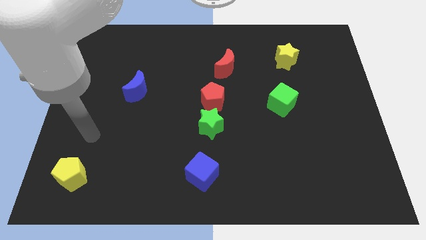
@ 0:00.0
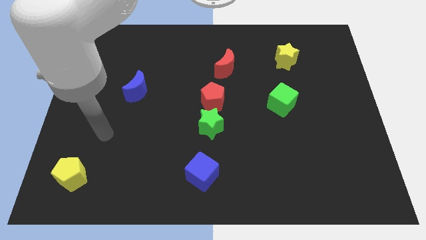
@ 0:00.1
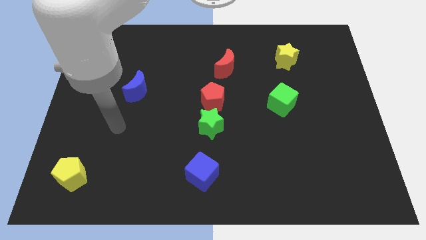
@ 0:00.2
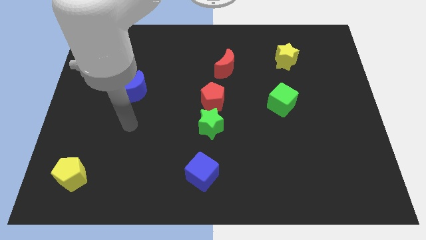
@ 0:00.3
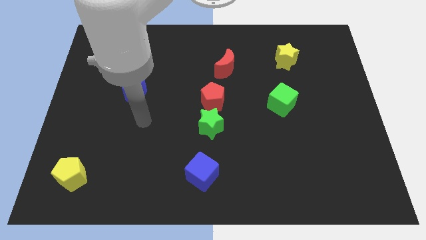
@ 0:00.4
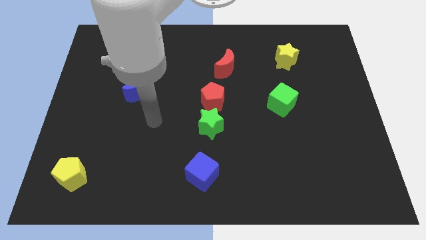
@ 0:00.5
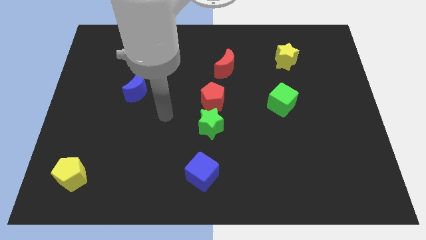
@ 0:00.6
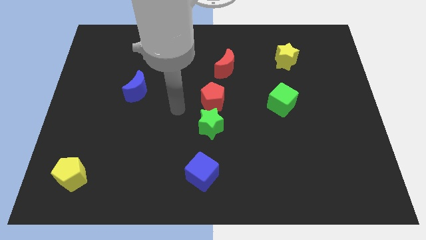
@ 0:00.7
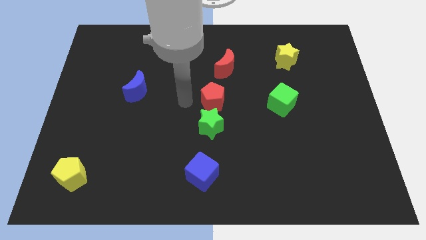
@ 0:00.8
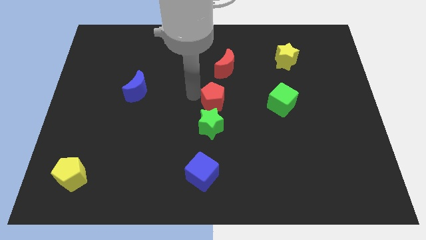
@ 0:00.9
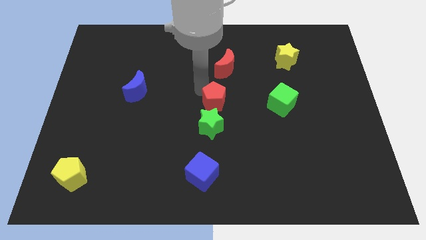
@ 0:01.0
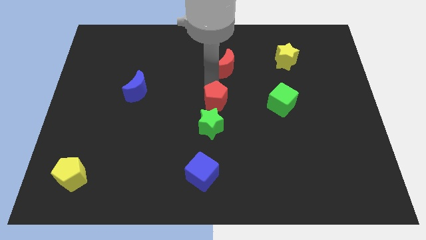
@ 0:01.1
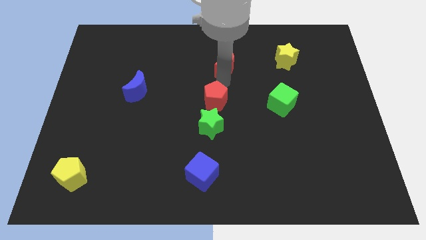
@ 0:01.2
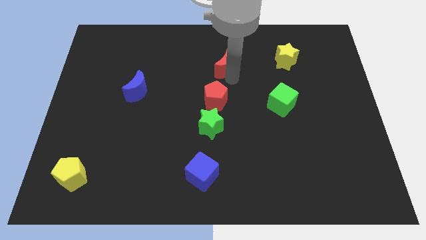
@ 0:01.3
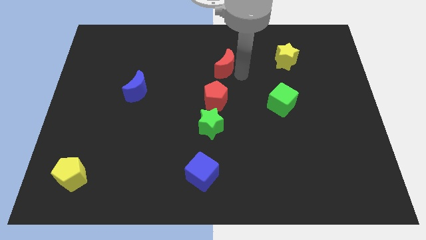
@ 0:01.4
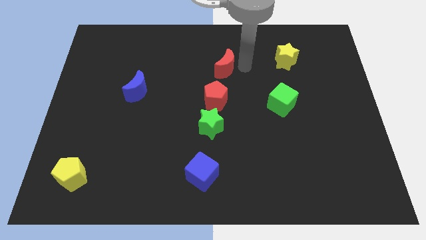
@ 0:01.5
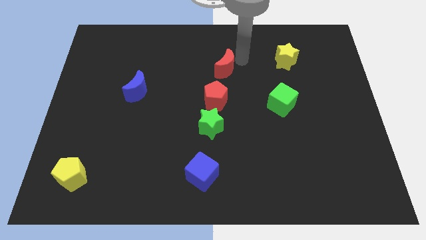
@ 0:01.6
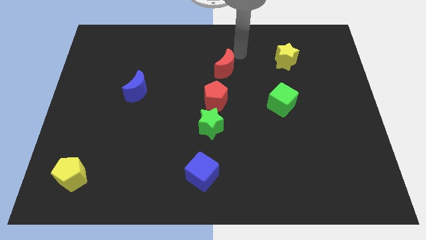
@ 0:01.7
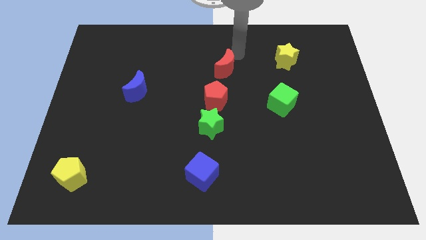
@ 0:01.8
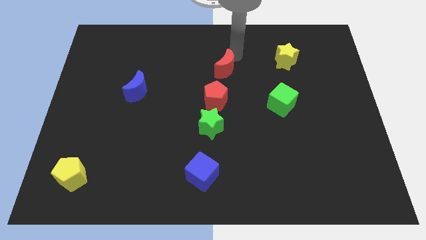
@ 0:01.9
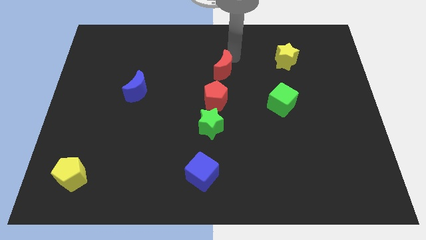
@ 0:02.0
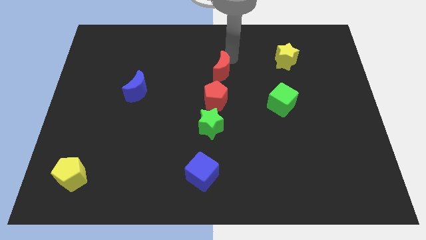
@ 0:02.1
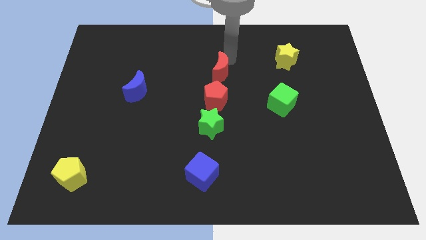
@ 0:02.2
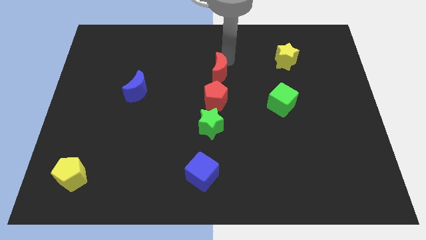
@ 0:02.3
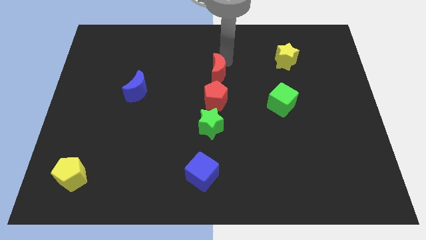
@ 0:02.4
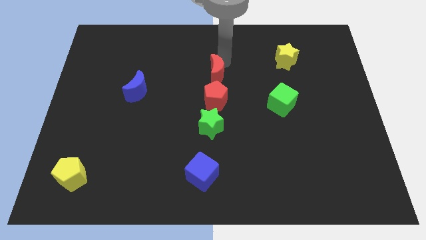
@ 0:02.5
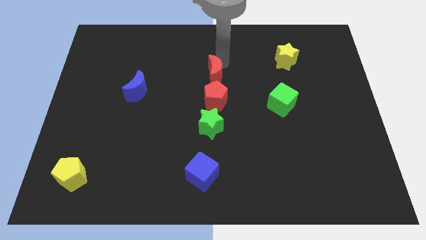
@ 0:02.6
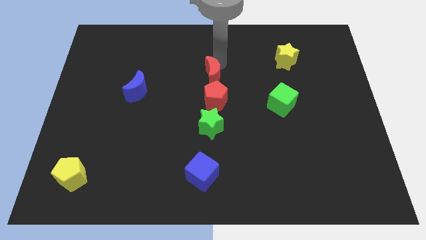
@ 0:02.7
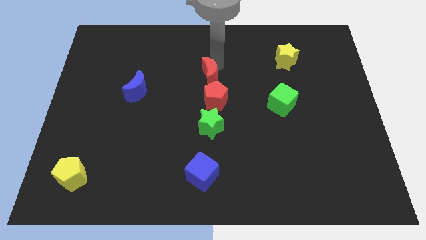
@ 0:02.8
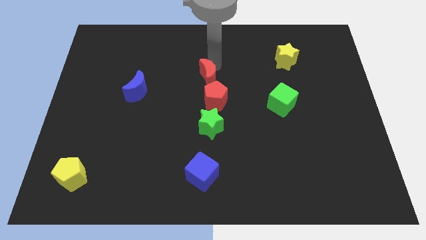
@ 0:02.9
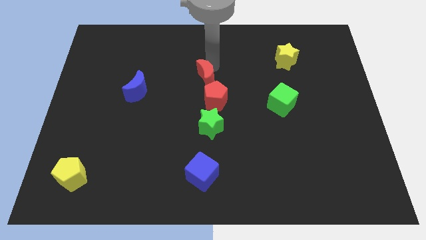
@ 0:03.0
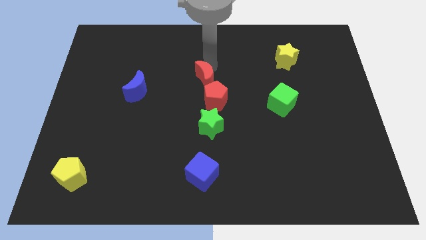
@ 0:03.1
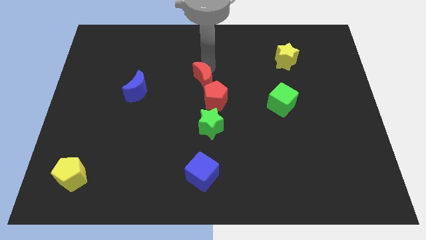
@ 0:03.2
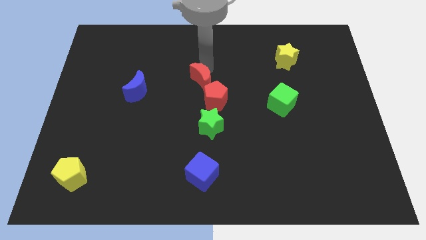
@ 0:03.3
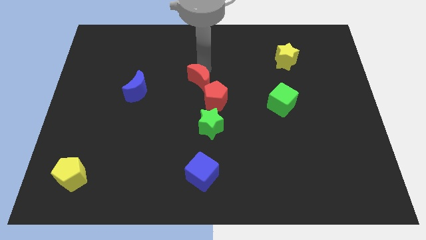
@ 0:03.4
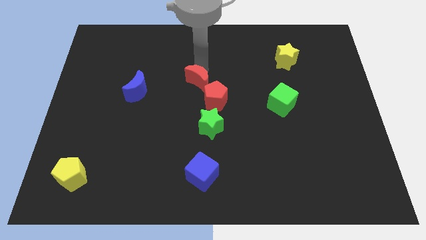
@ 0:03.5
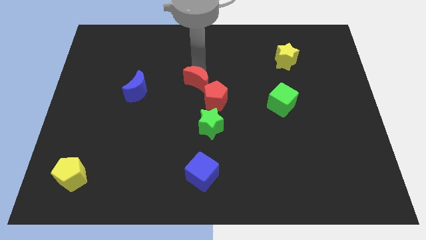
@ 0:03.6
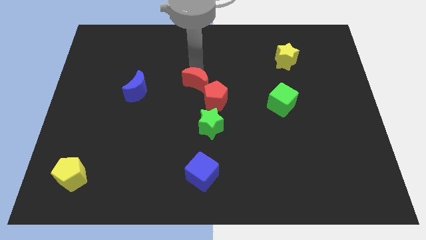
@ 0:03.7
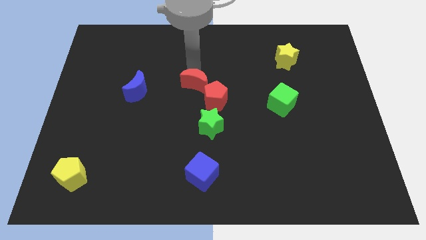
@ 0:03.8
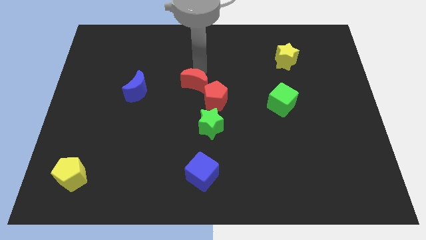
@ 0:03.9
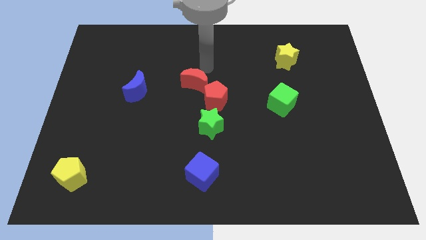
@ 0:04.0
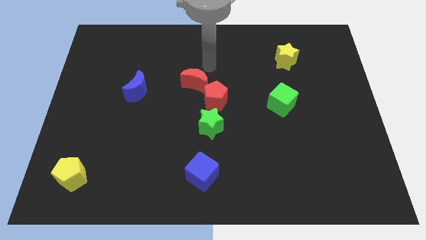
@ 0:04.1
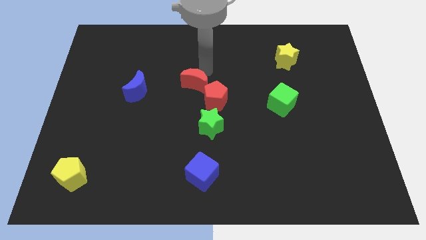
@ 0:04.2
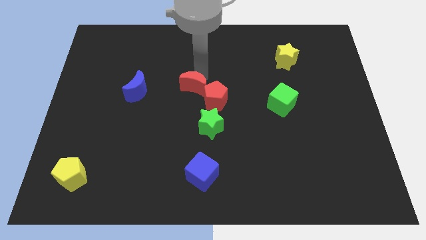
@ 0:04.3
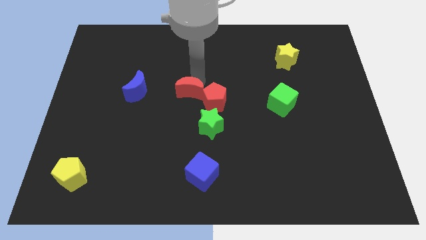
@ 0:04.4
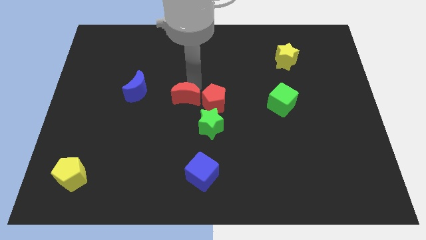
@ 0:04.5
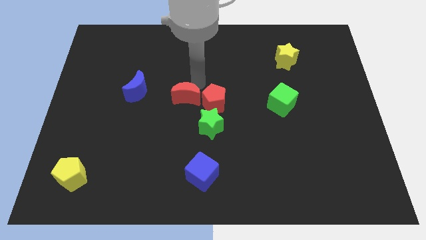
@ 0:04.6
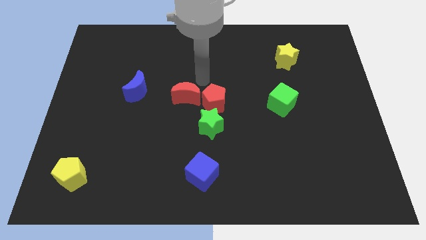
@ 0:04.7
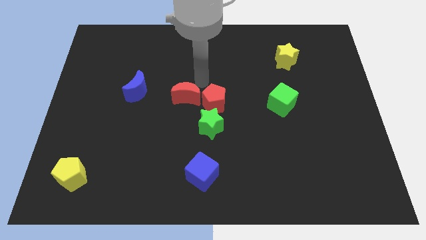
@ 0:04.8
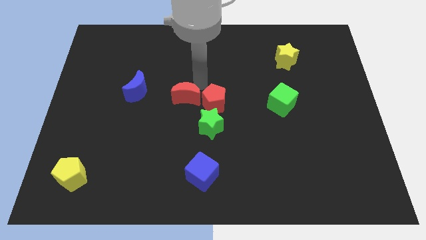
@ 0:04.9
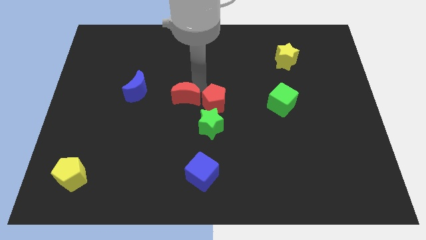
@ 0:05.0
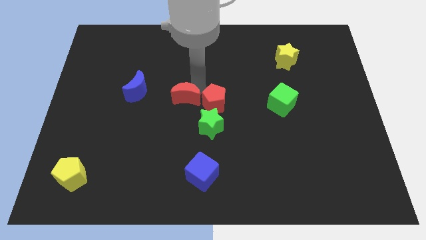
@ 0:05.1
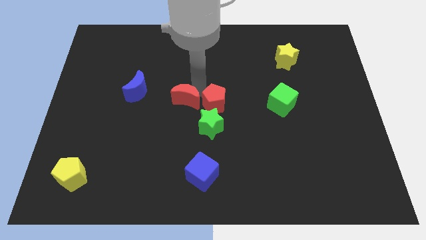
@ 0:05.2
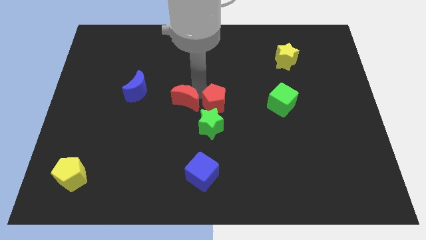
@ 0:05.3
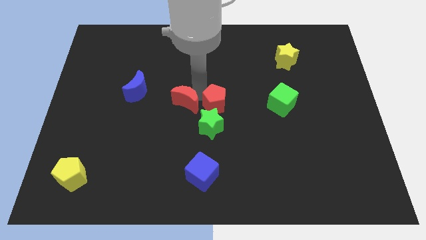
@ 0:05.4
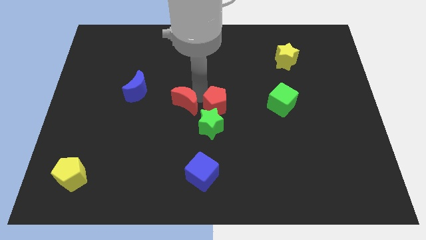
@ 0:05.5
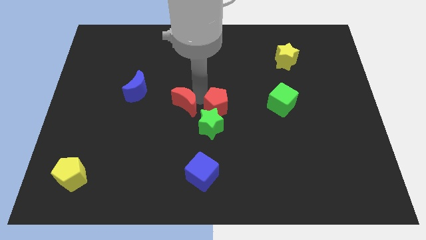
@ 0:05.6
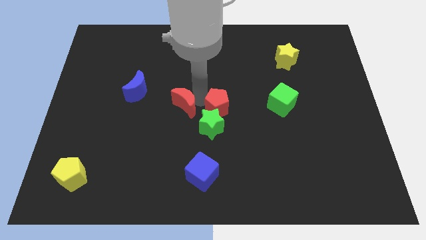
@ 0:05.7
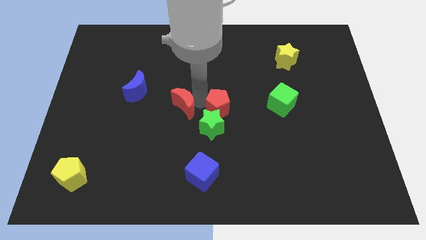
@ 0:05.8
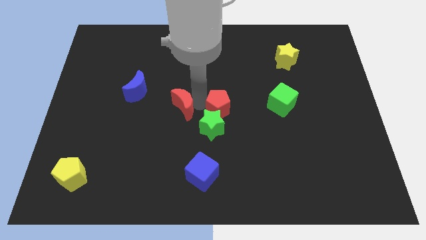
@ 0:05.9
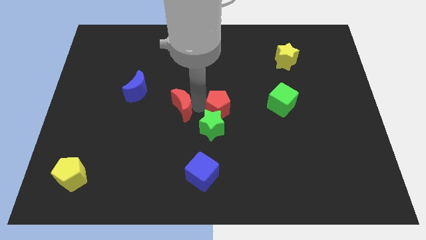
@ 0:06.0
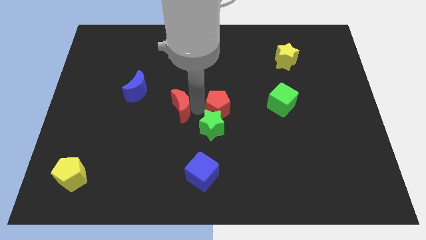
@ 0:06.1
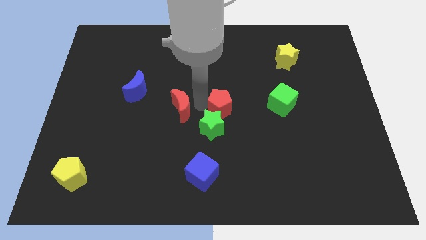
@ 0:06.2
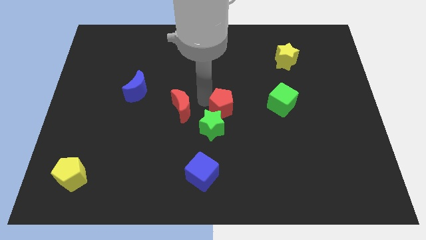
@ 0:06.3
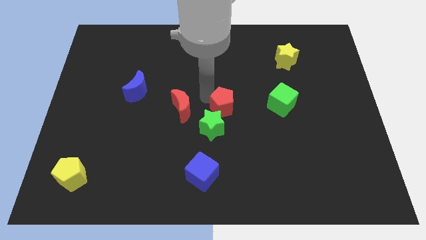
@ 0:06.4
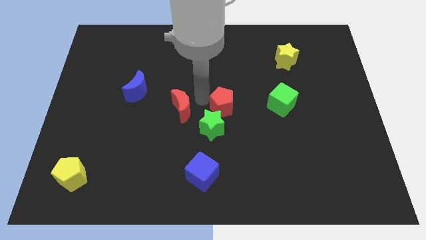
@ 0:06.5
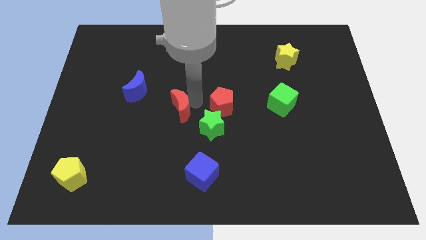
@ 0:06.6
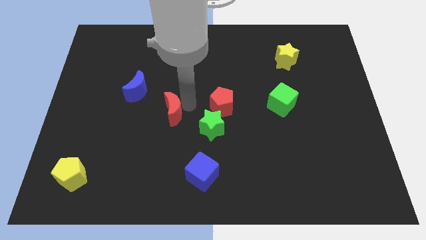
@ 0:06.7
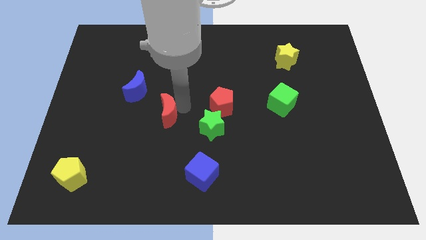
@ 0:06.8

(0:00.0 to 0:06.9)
move the red moon downwards and left

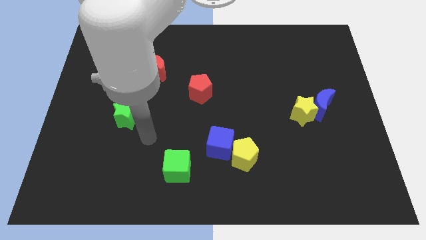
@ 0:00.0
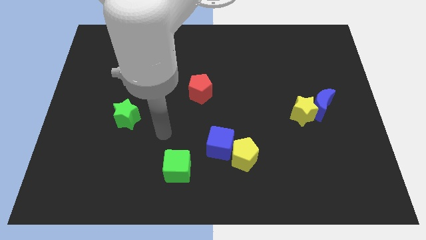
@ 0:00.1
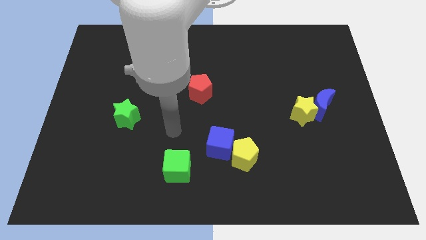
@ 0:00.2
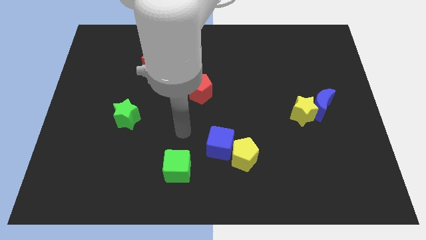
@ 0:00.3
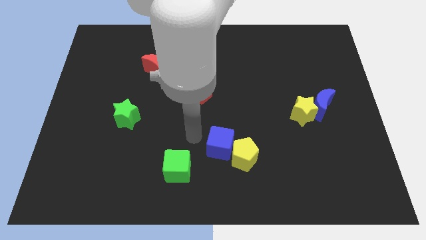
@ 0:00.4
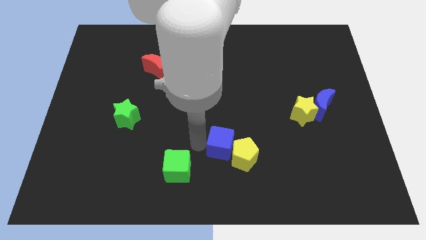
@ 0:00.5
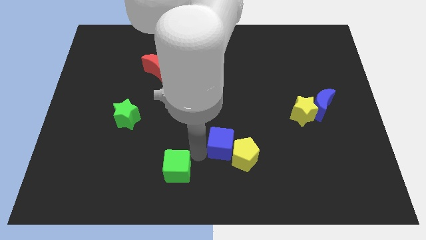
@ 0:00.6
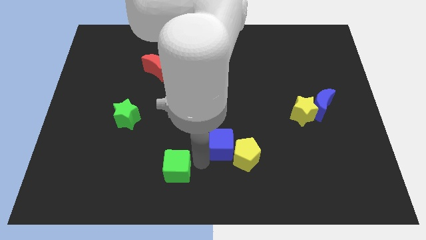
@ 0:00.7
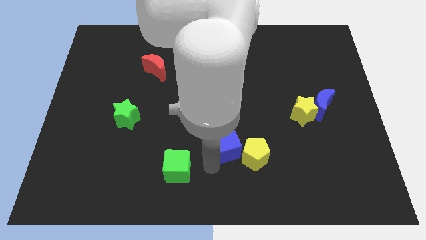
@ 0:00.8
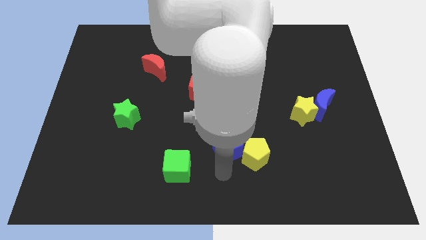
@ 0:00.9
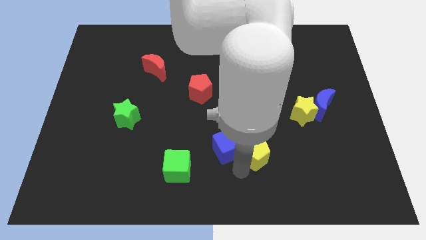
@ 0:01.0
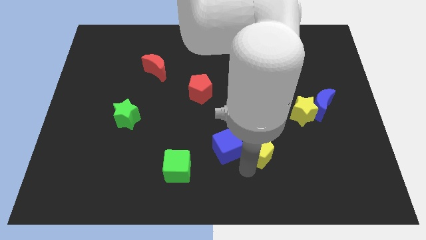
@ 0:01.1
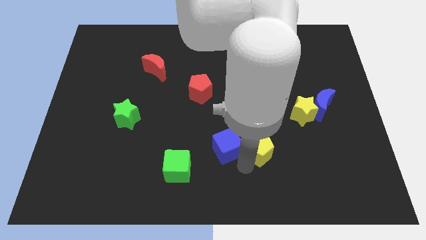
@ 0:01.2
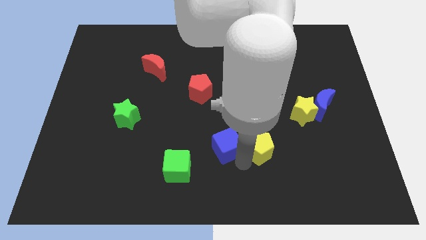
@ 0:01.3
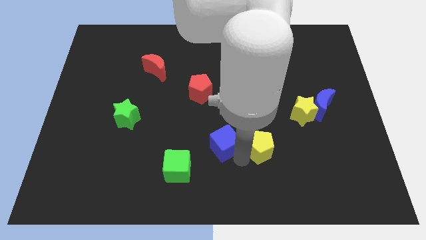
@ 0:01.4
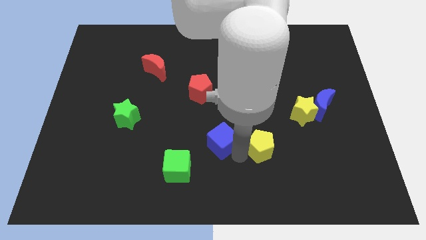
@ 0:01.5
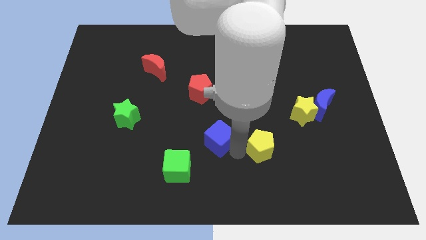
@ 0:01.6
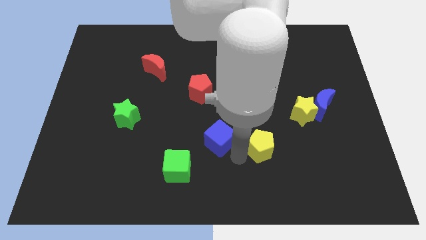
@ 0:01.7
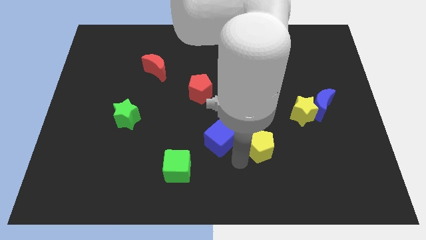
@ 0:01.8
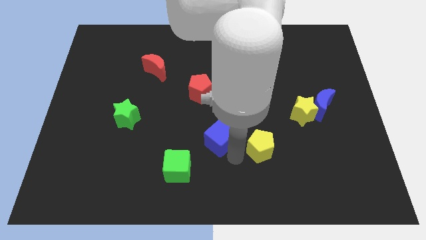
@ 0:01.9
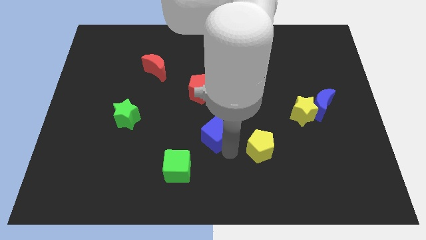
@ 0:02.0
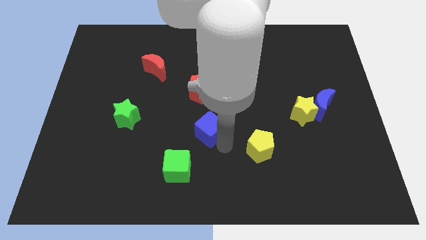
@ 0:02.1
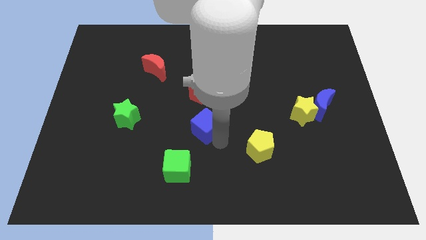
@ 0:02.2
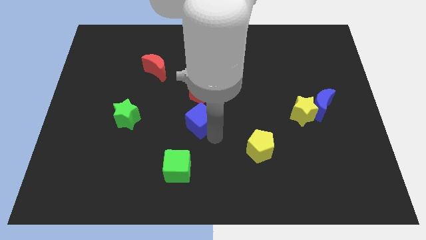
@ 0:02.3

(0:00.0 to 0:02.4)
move the blue cube upwards and to the left diagonally a bit
